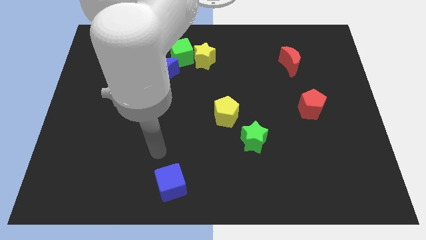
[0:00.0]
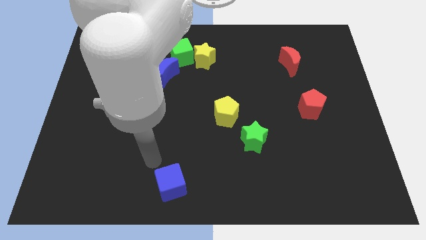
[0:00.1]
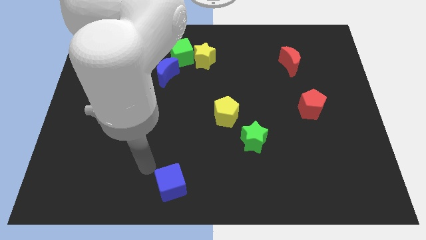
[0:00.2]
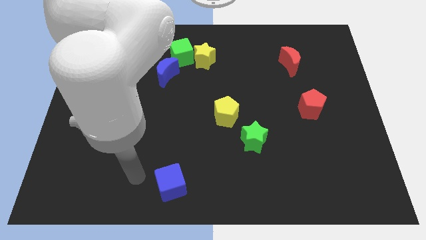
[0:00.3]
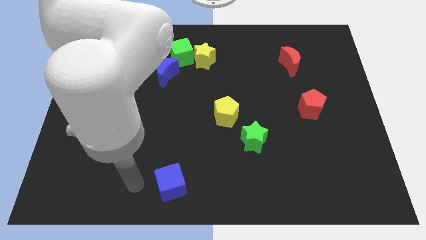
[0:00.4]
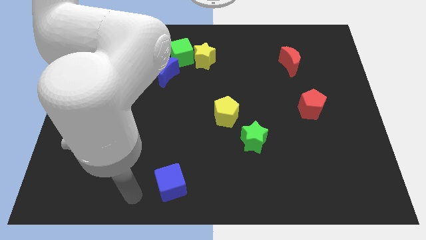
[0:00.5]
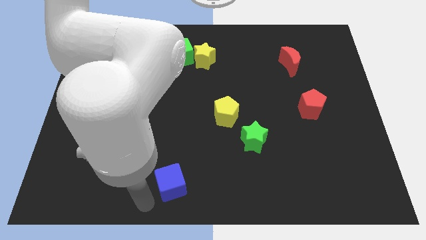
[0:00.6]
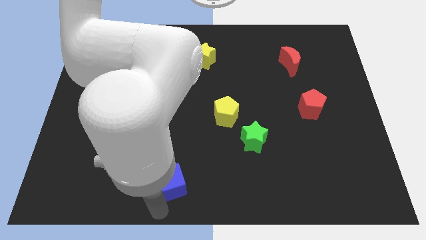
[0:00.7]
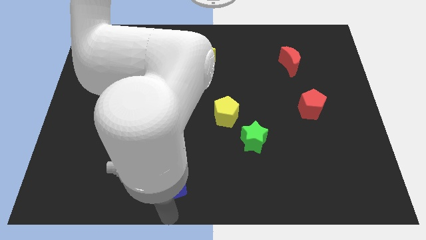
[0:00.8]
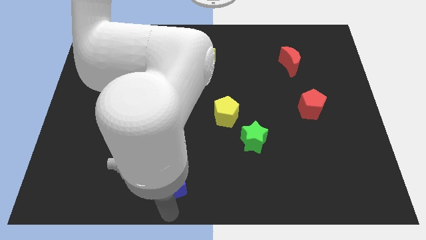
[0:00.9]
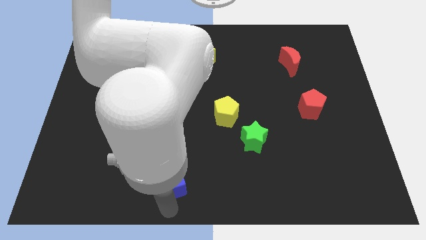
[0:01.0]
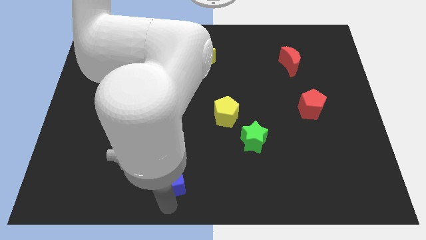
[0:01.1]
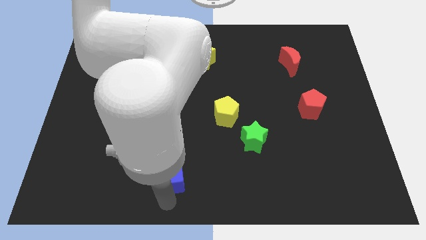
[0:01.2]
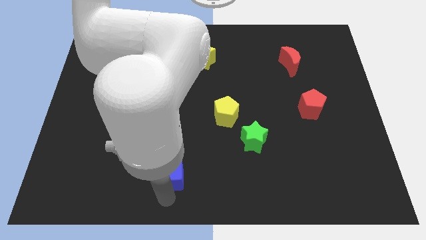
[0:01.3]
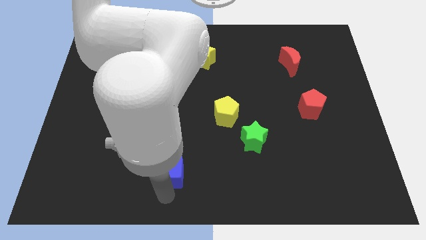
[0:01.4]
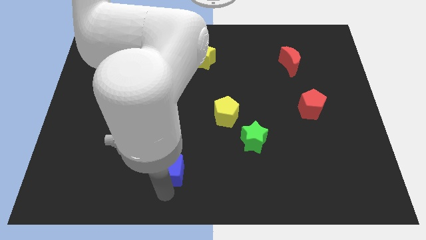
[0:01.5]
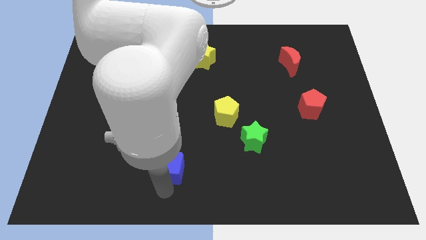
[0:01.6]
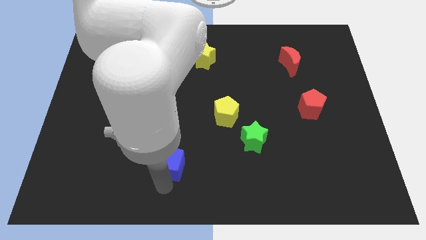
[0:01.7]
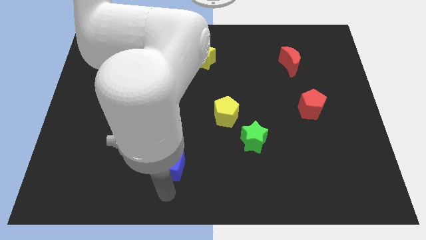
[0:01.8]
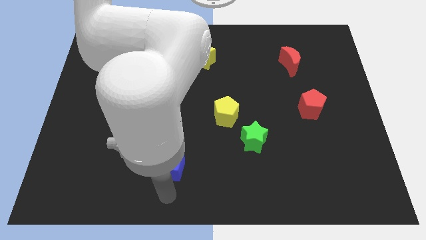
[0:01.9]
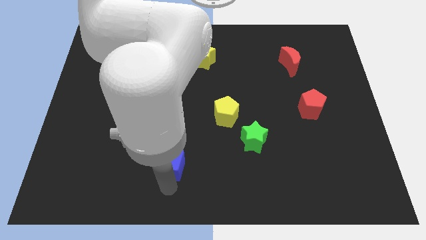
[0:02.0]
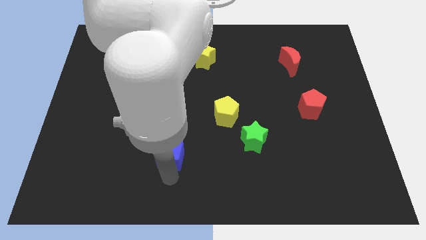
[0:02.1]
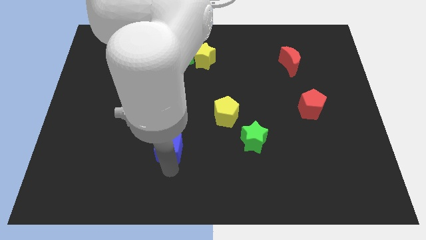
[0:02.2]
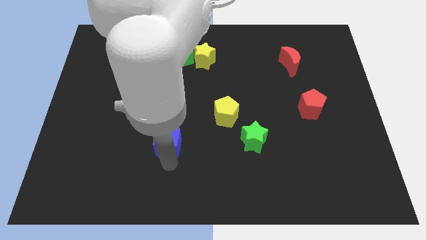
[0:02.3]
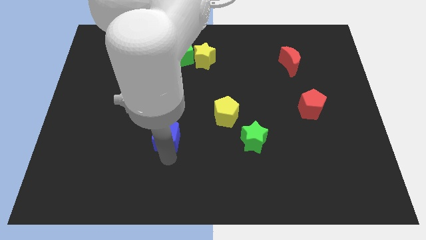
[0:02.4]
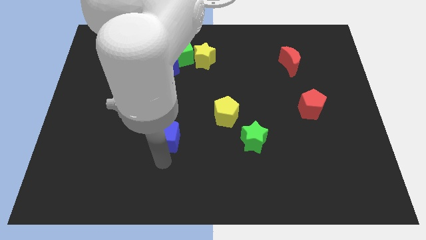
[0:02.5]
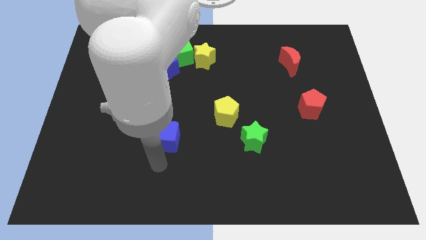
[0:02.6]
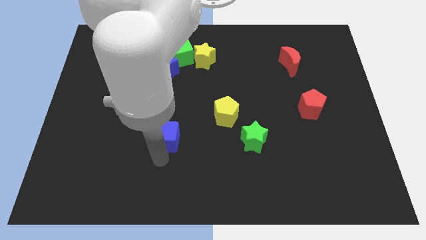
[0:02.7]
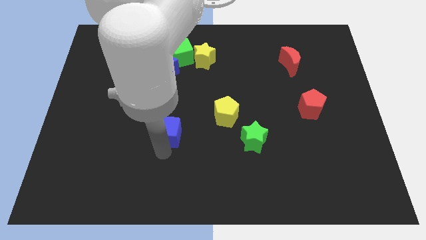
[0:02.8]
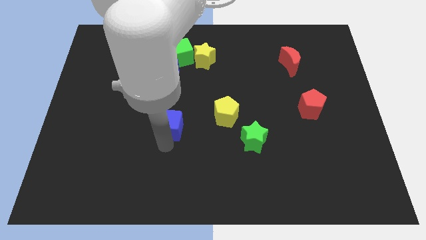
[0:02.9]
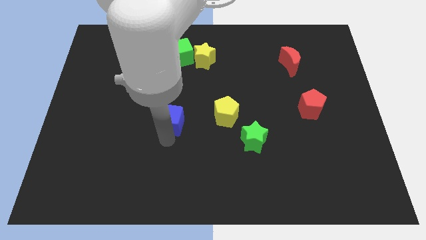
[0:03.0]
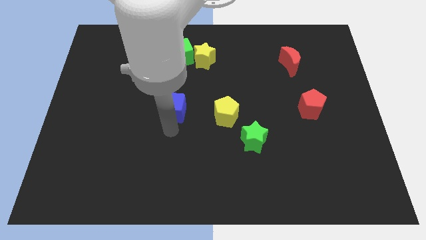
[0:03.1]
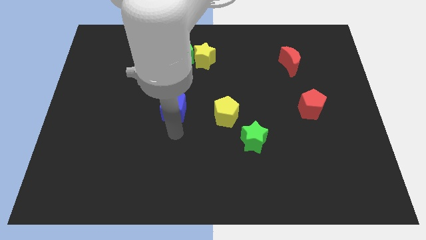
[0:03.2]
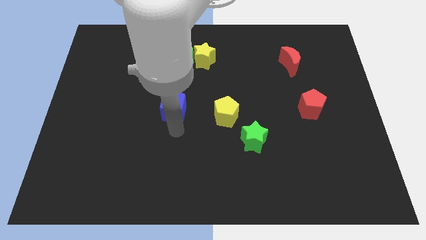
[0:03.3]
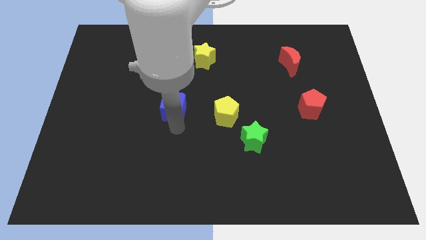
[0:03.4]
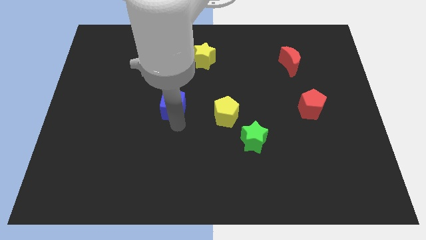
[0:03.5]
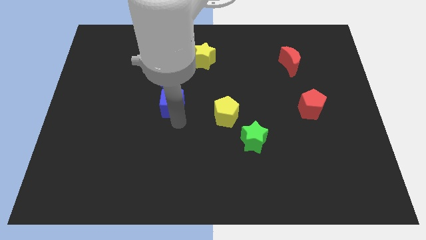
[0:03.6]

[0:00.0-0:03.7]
slide the blue cube upwards

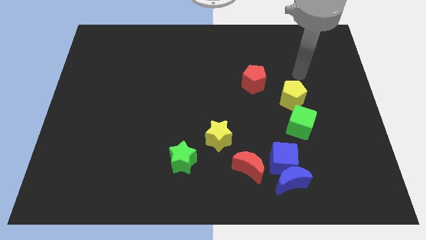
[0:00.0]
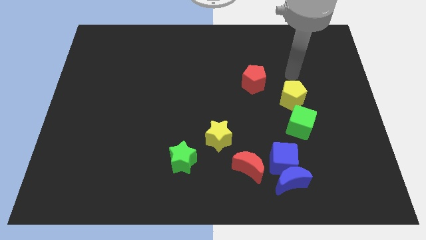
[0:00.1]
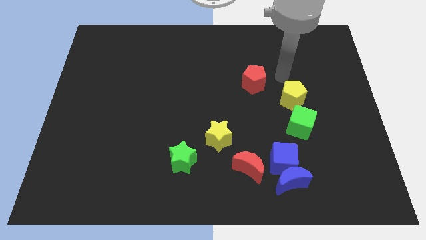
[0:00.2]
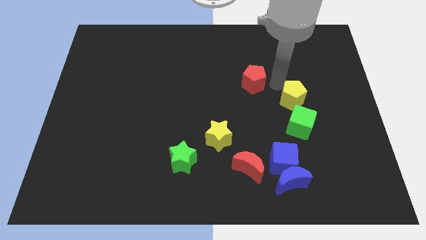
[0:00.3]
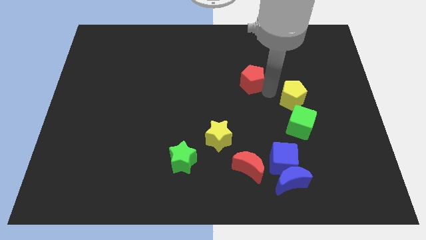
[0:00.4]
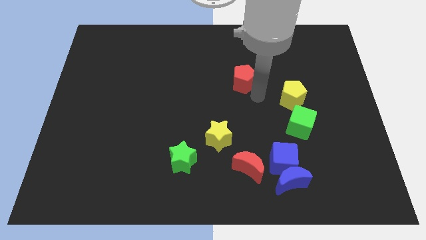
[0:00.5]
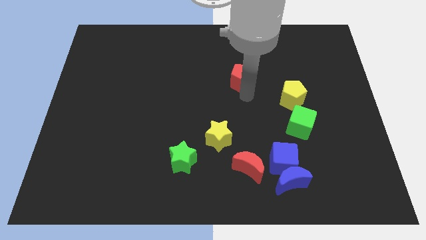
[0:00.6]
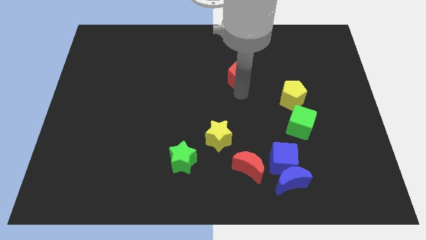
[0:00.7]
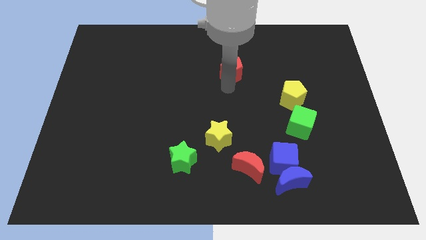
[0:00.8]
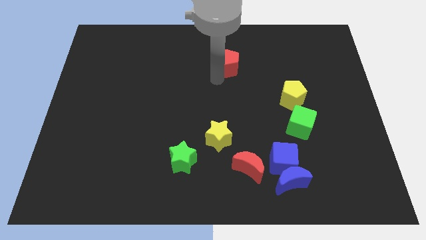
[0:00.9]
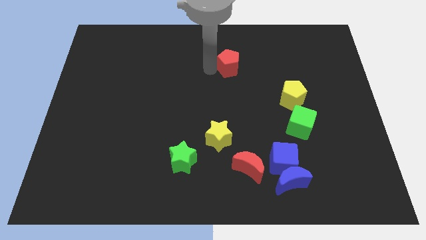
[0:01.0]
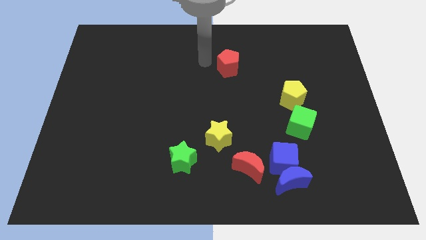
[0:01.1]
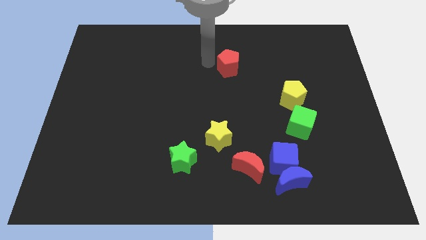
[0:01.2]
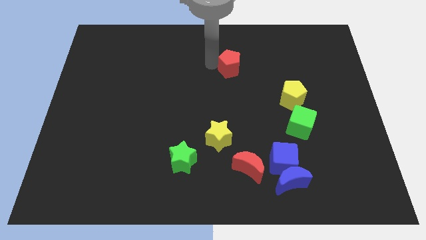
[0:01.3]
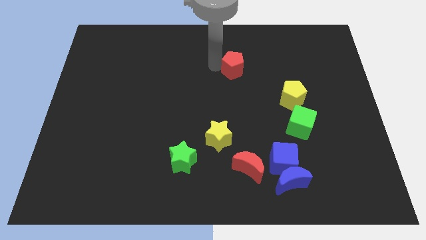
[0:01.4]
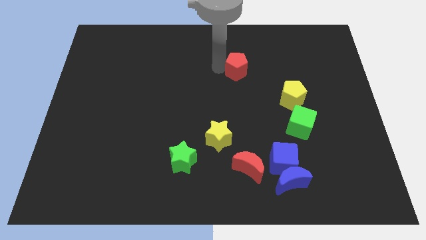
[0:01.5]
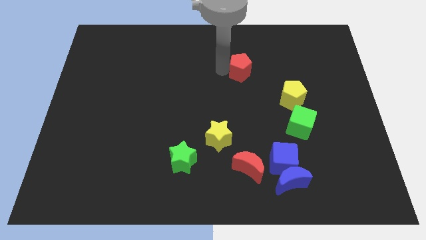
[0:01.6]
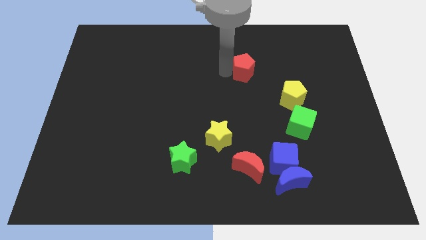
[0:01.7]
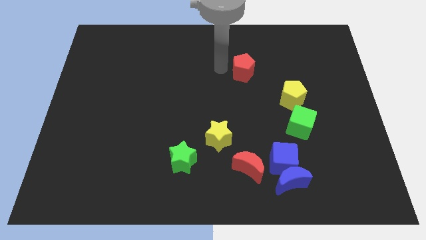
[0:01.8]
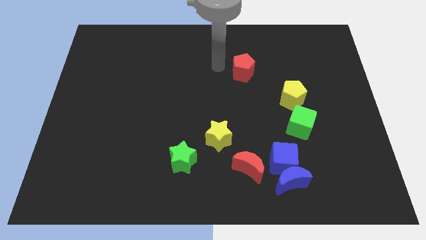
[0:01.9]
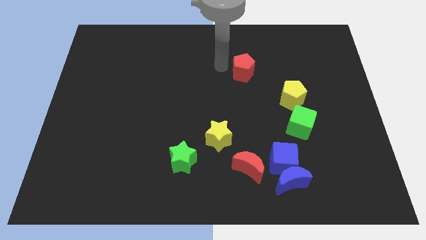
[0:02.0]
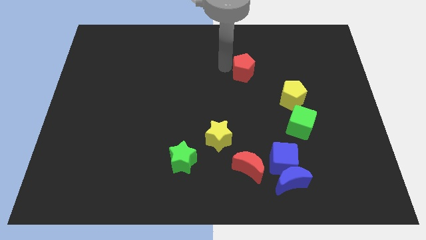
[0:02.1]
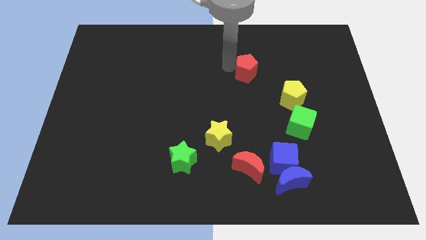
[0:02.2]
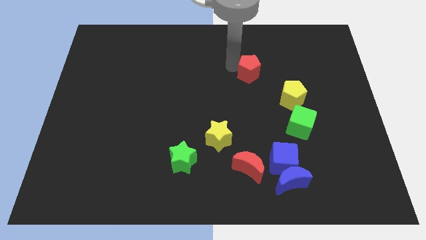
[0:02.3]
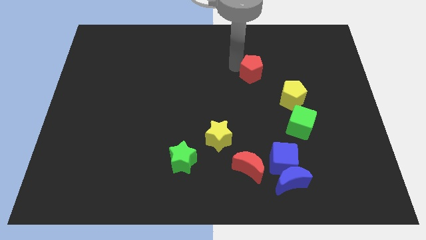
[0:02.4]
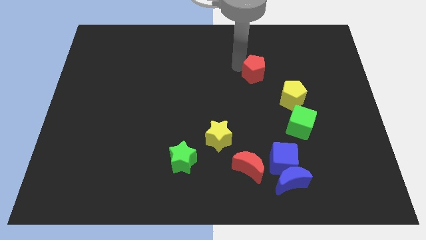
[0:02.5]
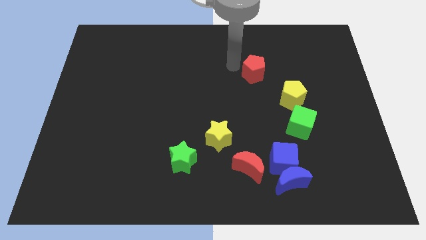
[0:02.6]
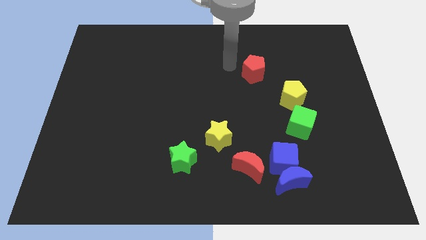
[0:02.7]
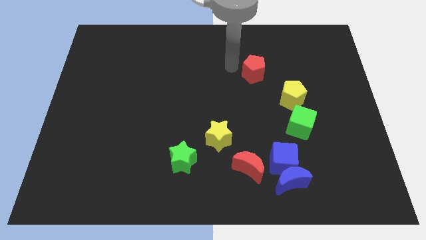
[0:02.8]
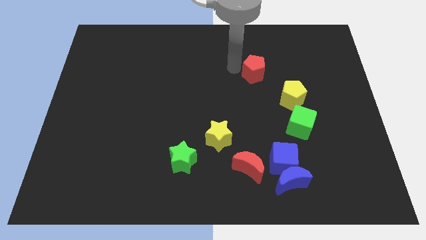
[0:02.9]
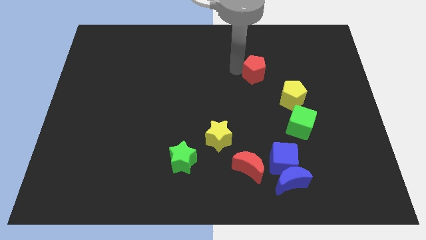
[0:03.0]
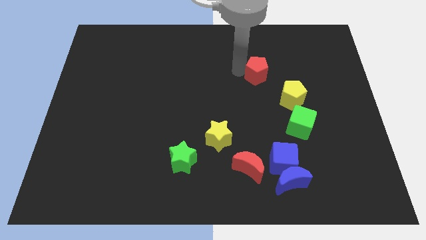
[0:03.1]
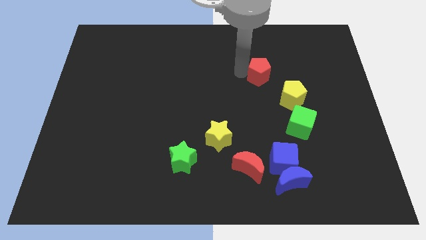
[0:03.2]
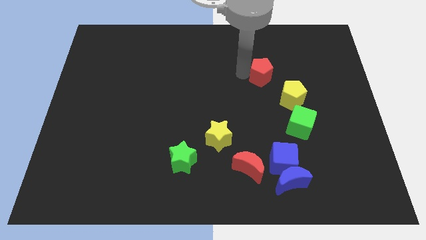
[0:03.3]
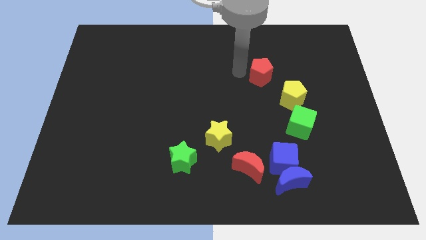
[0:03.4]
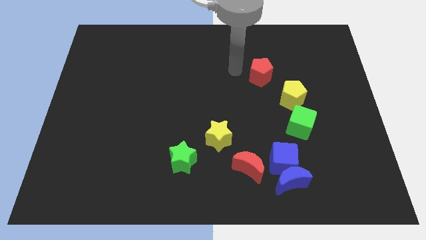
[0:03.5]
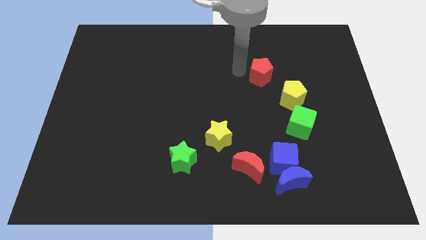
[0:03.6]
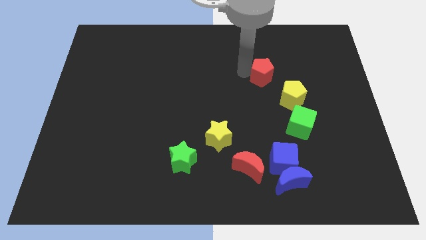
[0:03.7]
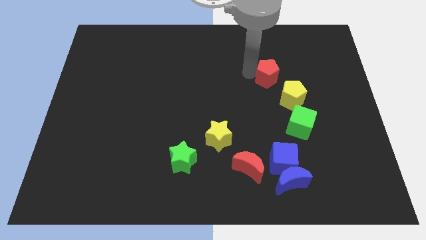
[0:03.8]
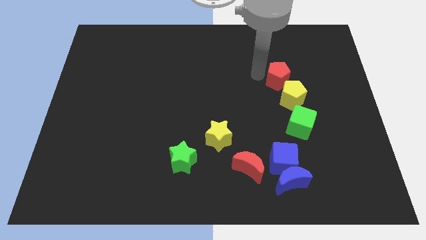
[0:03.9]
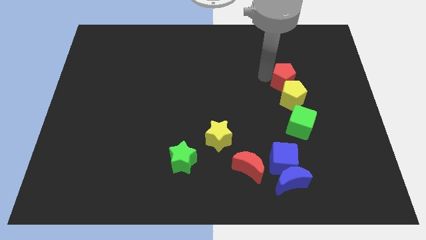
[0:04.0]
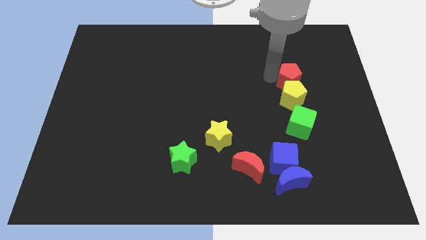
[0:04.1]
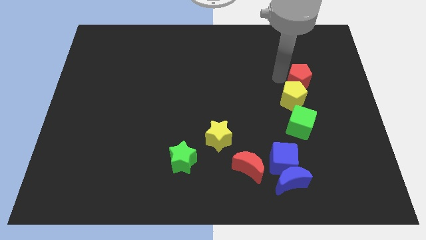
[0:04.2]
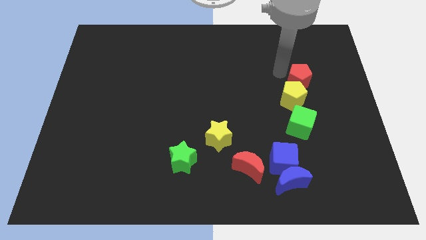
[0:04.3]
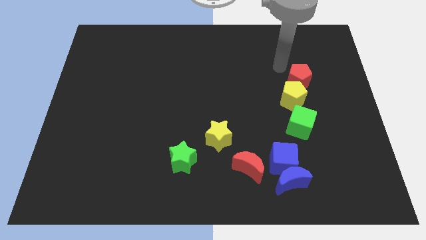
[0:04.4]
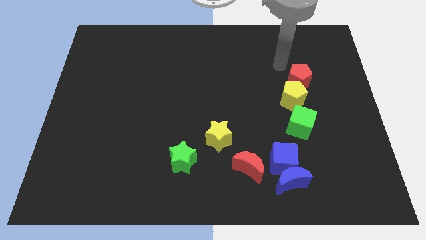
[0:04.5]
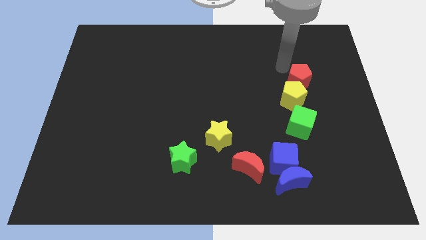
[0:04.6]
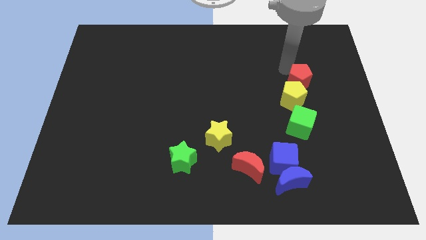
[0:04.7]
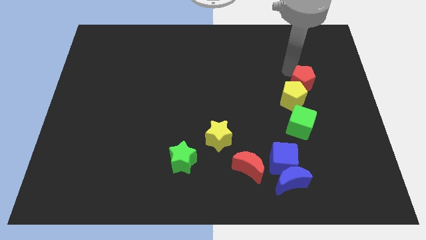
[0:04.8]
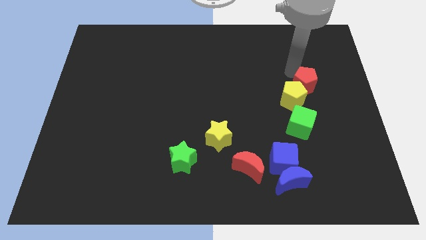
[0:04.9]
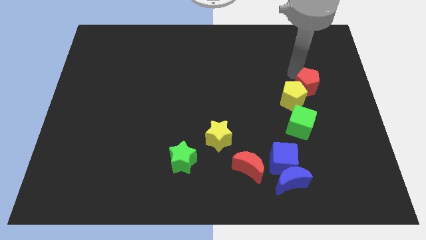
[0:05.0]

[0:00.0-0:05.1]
slide the red pentagon down and to the right a little bit
